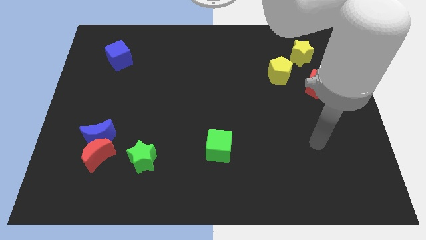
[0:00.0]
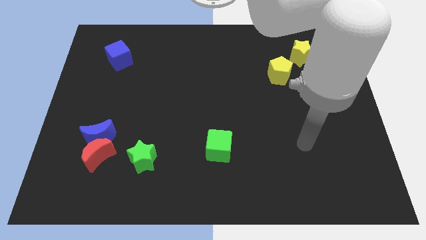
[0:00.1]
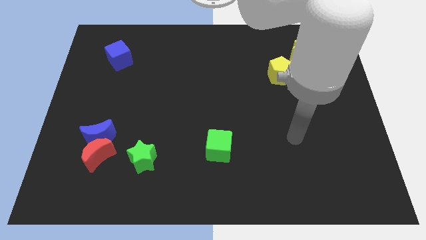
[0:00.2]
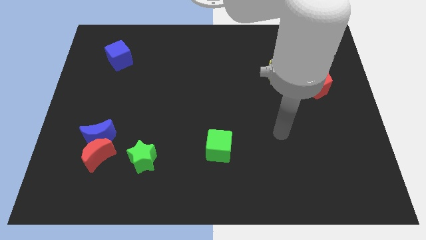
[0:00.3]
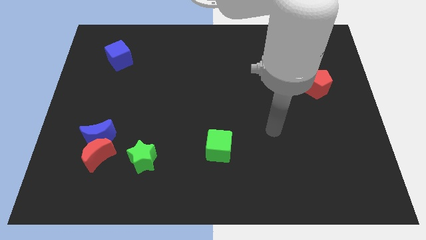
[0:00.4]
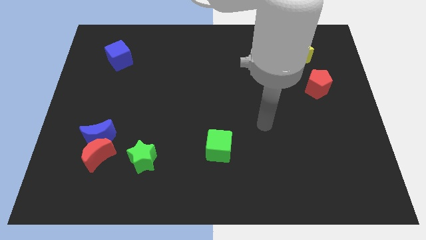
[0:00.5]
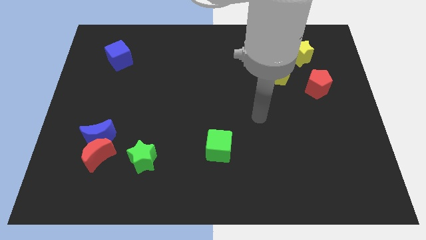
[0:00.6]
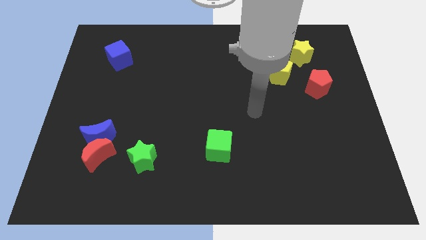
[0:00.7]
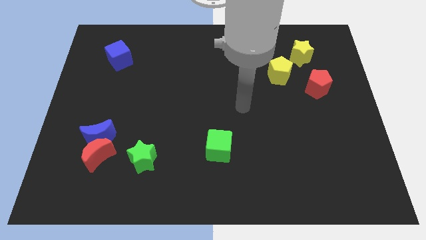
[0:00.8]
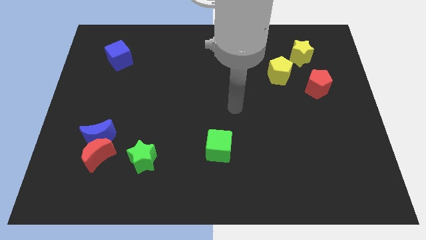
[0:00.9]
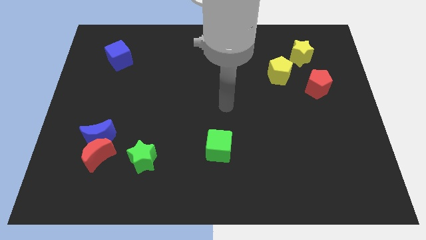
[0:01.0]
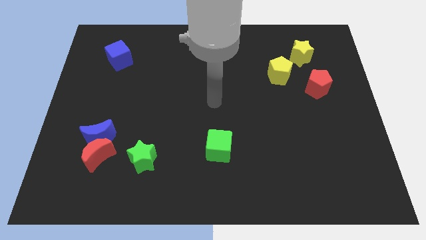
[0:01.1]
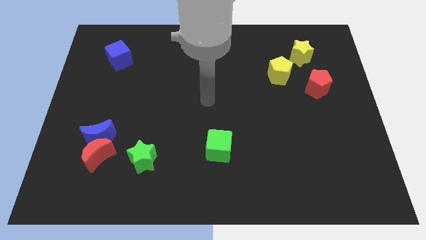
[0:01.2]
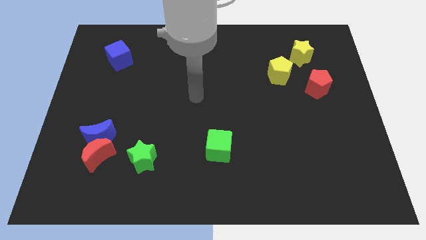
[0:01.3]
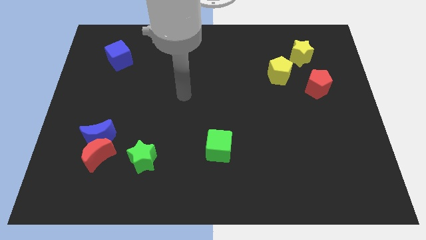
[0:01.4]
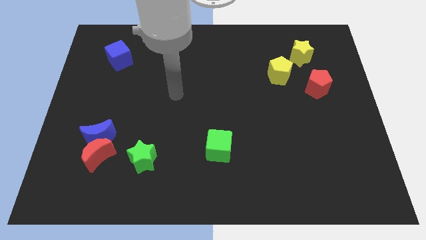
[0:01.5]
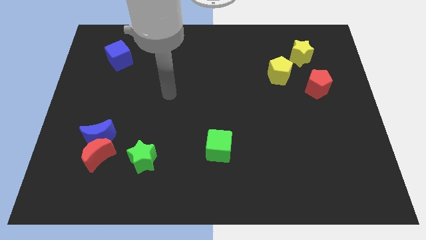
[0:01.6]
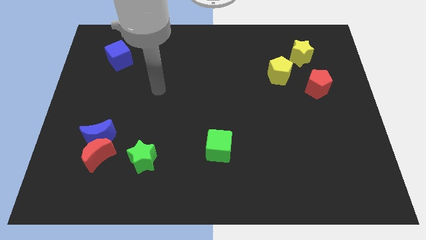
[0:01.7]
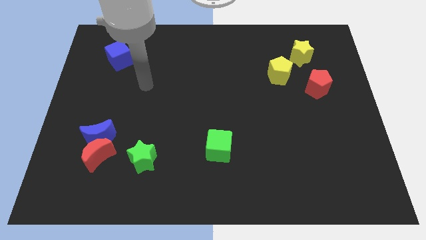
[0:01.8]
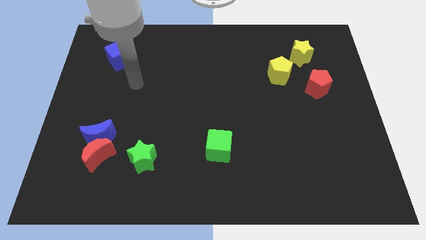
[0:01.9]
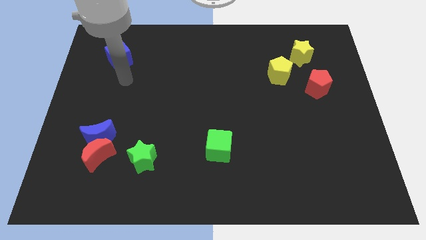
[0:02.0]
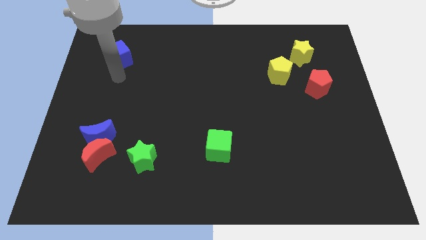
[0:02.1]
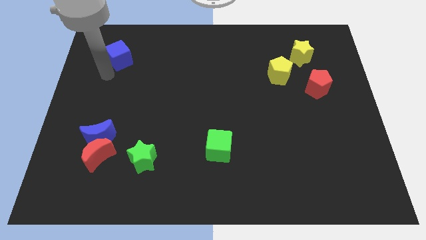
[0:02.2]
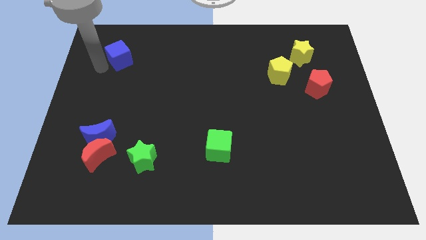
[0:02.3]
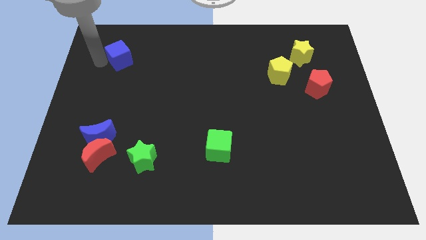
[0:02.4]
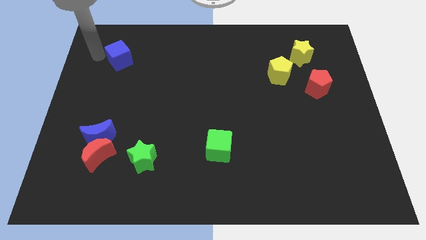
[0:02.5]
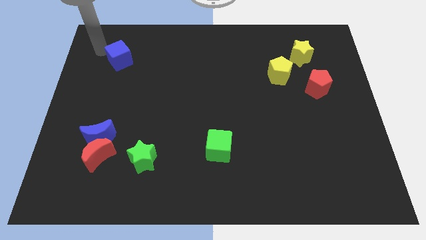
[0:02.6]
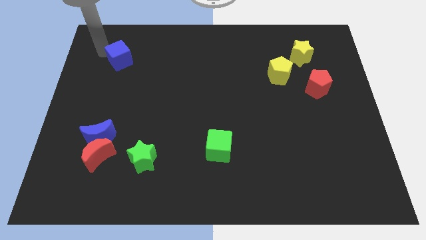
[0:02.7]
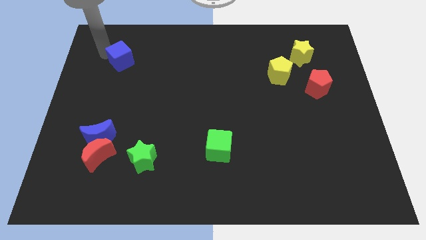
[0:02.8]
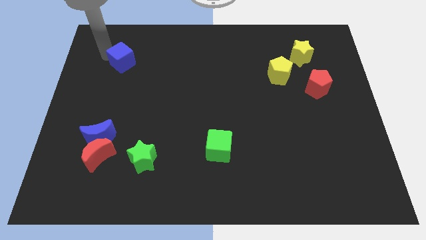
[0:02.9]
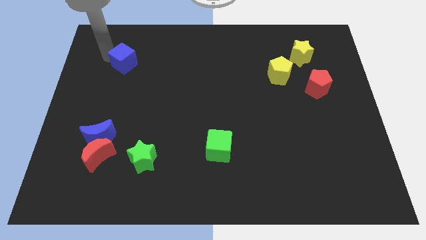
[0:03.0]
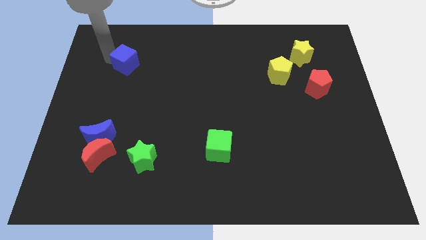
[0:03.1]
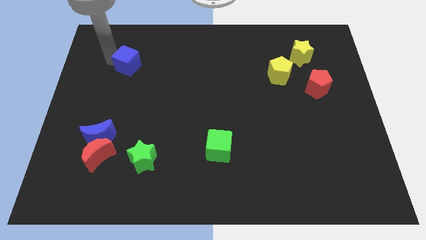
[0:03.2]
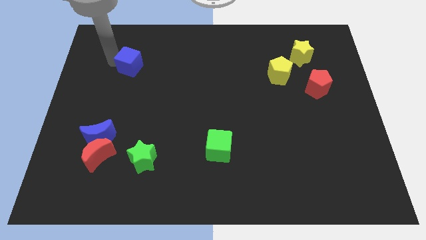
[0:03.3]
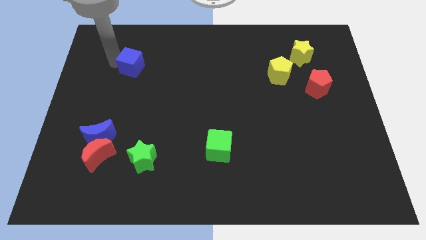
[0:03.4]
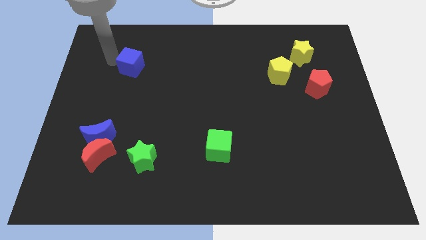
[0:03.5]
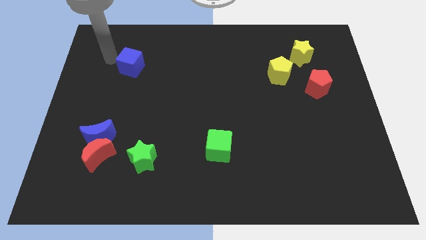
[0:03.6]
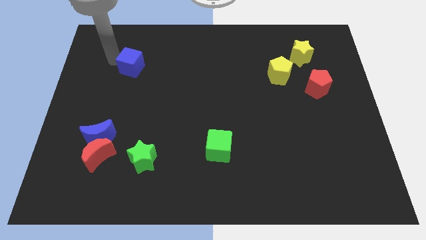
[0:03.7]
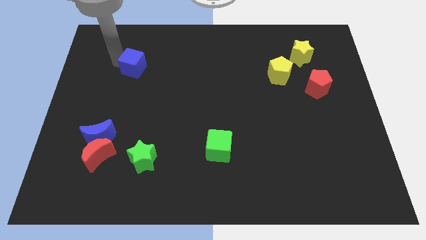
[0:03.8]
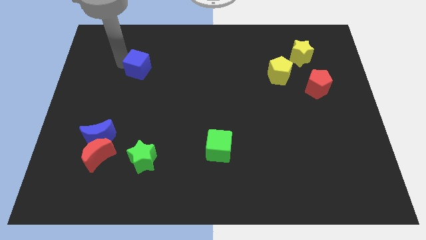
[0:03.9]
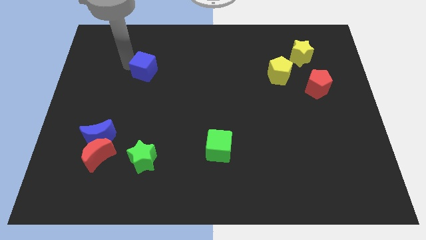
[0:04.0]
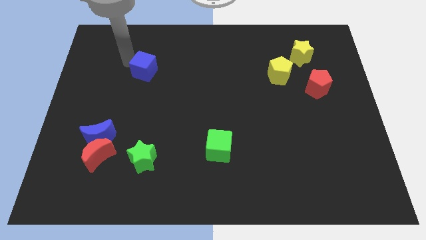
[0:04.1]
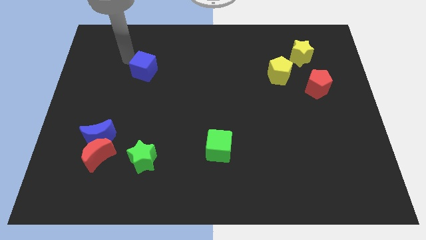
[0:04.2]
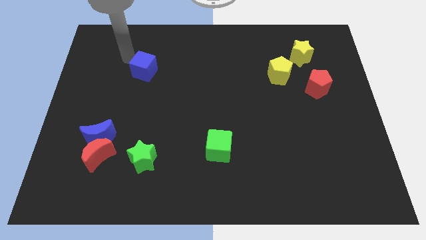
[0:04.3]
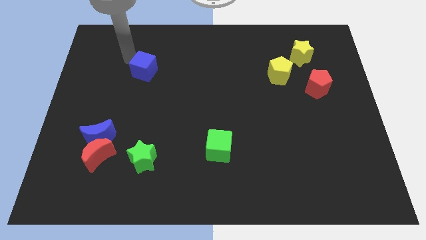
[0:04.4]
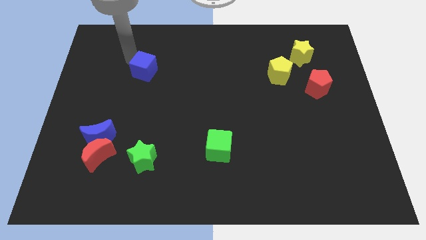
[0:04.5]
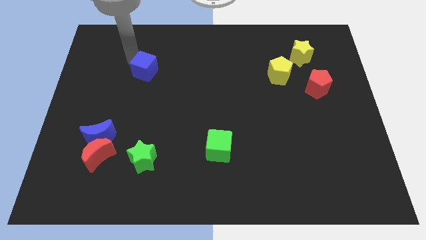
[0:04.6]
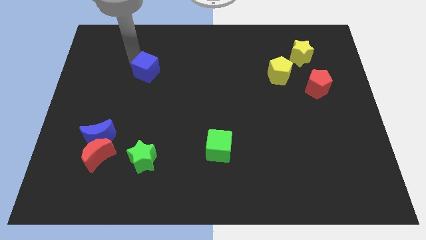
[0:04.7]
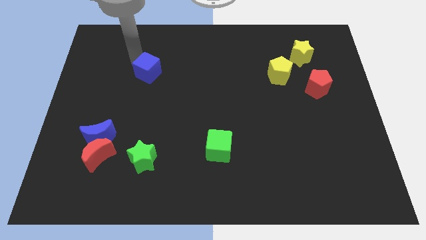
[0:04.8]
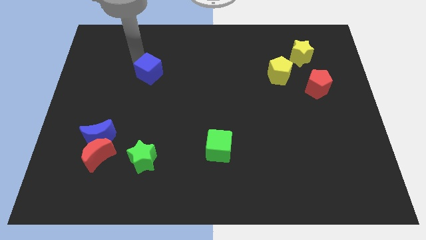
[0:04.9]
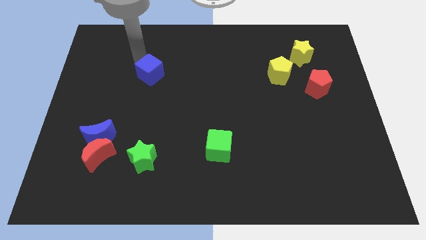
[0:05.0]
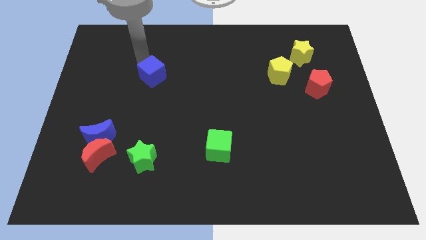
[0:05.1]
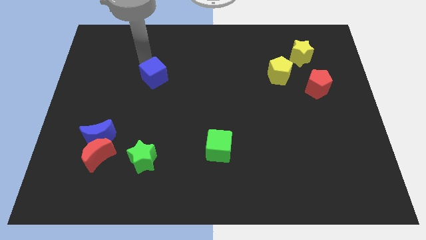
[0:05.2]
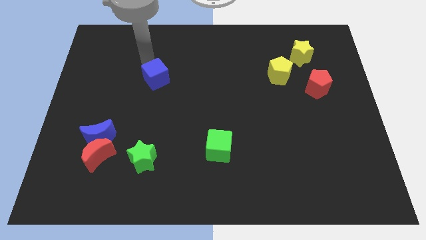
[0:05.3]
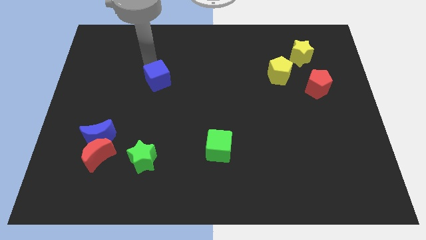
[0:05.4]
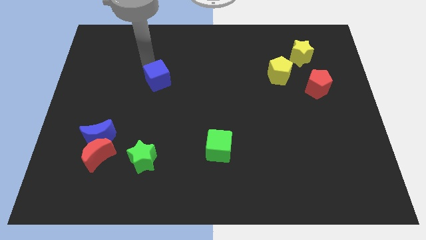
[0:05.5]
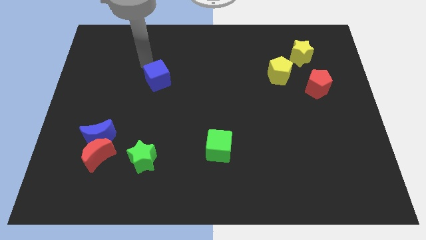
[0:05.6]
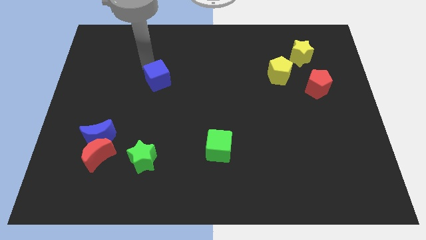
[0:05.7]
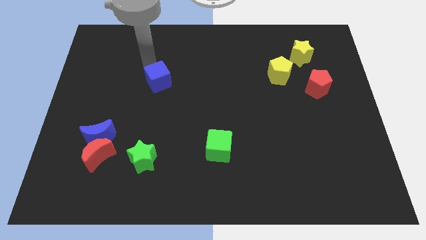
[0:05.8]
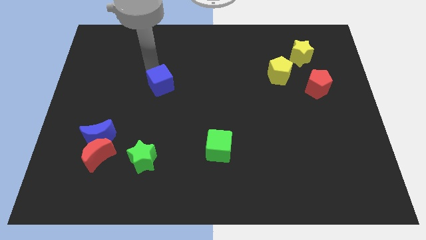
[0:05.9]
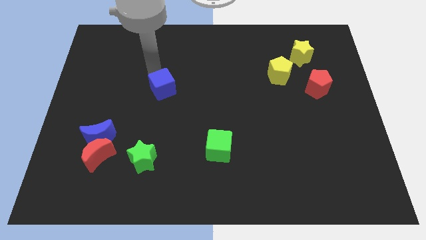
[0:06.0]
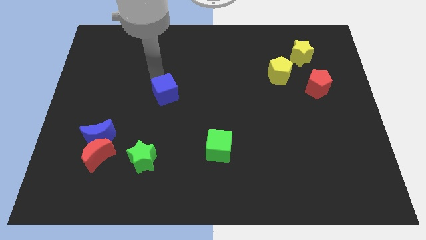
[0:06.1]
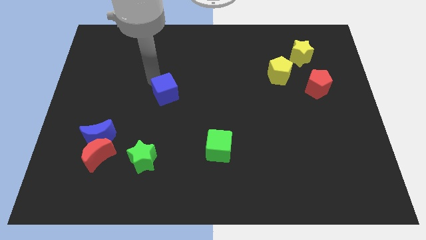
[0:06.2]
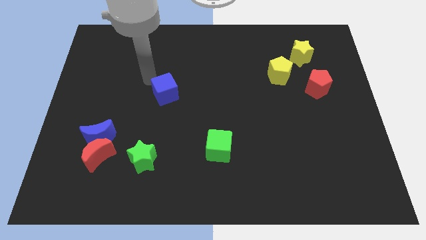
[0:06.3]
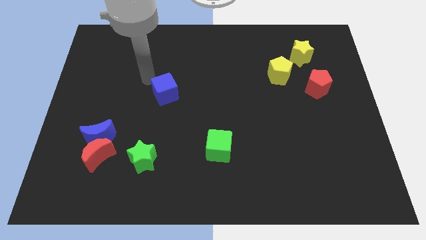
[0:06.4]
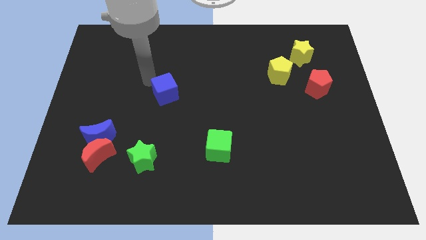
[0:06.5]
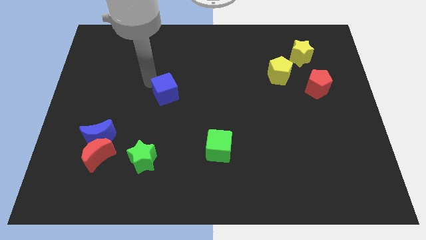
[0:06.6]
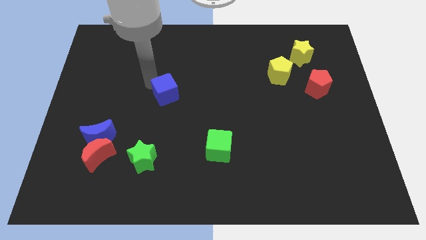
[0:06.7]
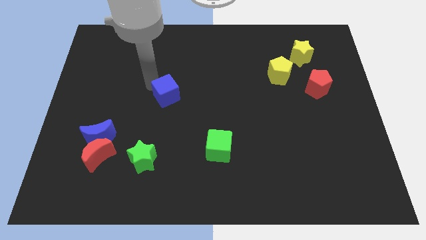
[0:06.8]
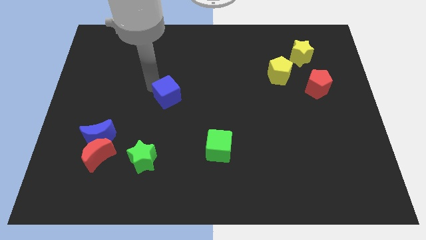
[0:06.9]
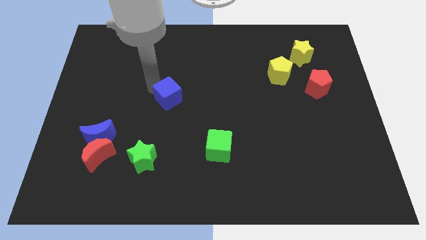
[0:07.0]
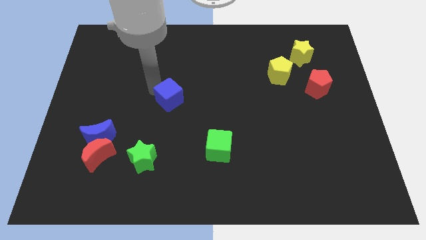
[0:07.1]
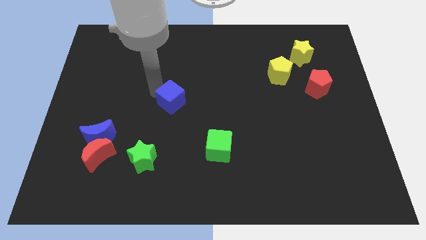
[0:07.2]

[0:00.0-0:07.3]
move the blue cube downwards and then to the right

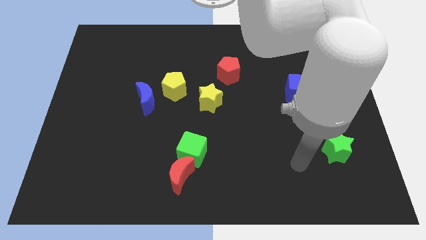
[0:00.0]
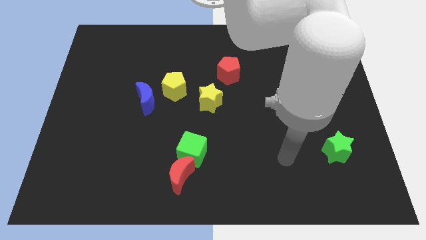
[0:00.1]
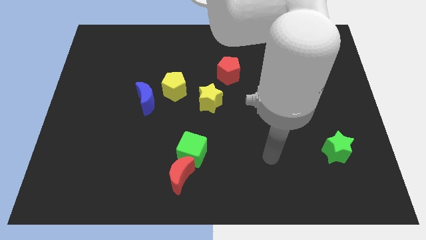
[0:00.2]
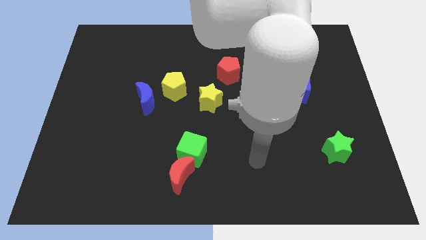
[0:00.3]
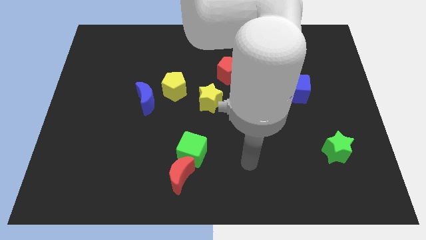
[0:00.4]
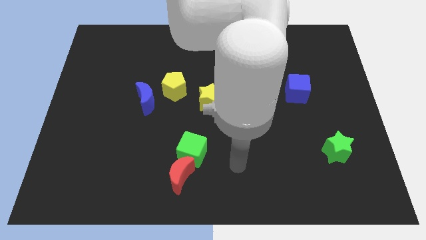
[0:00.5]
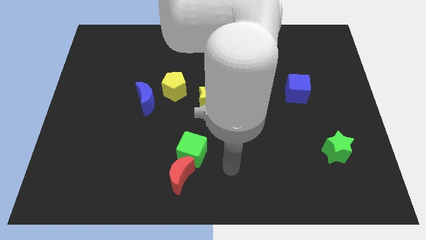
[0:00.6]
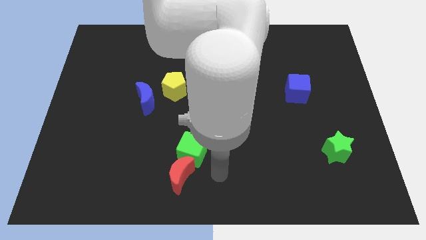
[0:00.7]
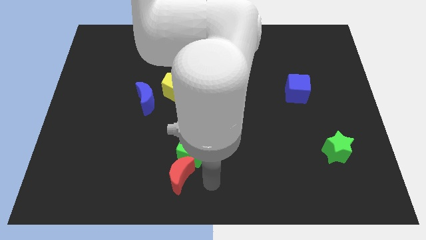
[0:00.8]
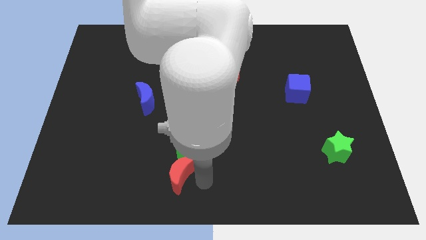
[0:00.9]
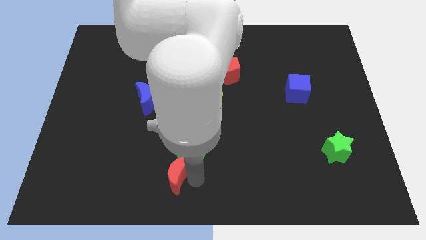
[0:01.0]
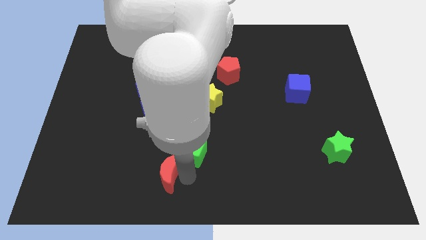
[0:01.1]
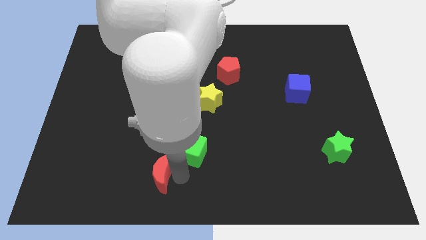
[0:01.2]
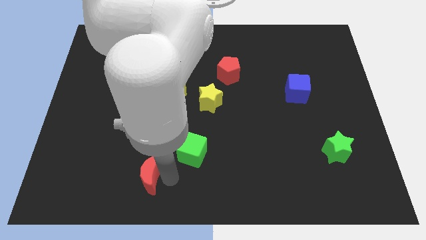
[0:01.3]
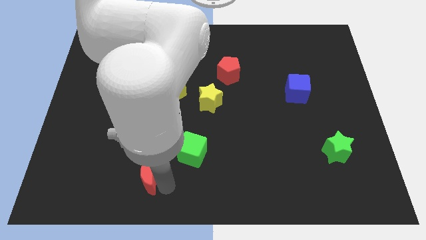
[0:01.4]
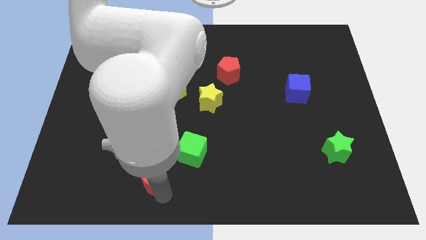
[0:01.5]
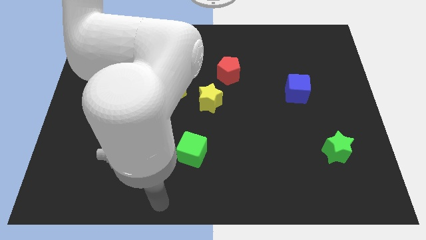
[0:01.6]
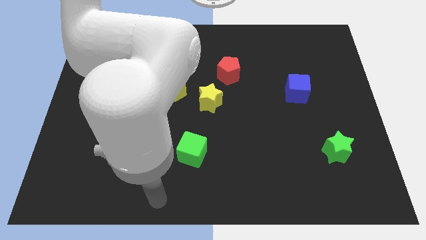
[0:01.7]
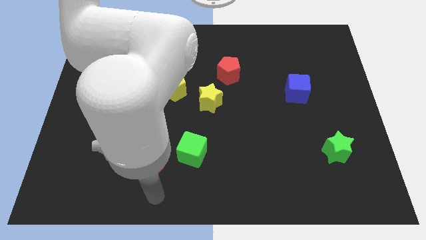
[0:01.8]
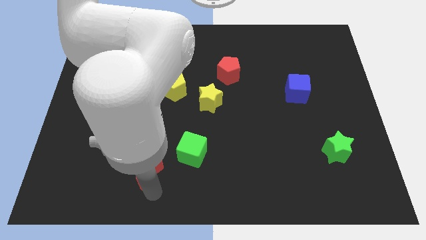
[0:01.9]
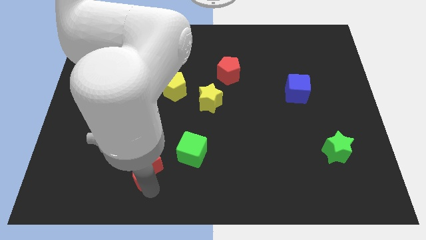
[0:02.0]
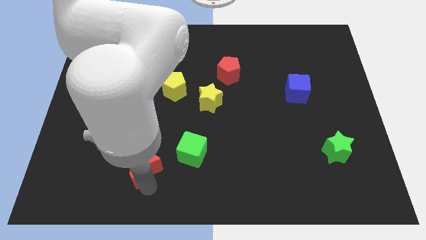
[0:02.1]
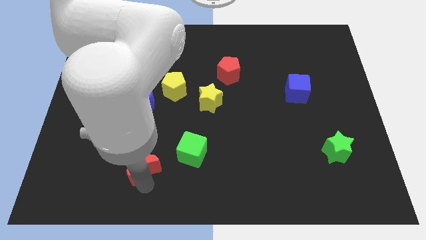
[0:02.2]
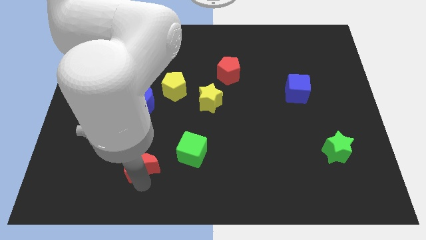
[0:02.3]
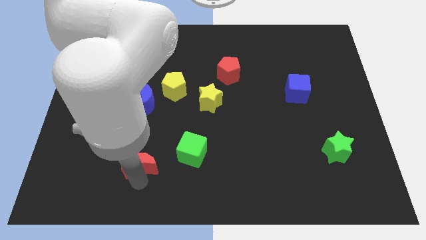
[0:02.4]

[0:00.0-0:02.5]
slide the red moon up and left diagonally a bit
